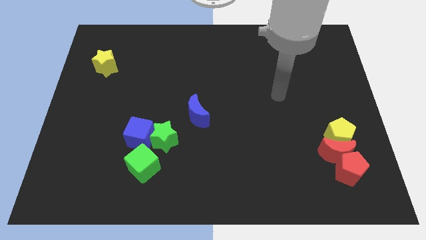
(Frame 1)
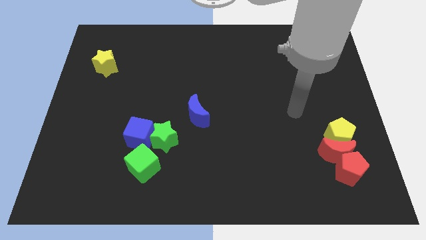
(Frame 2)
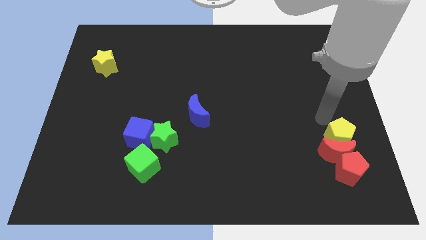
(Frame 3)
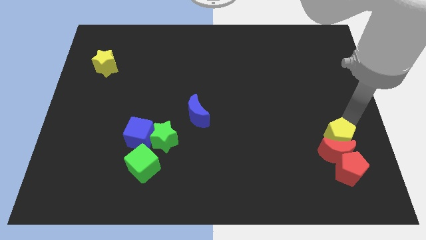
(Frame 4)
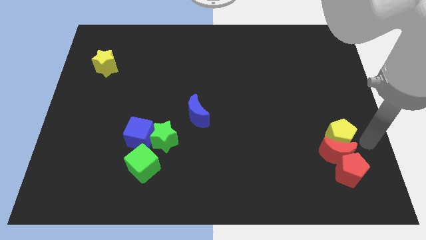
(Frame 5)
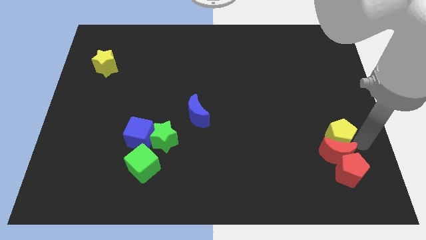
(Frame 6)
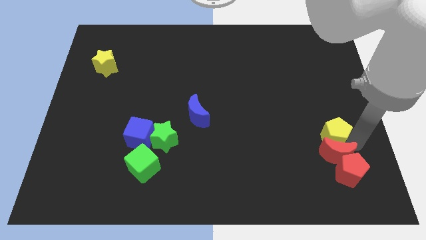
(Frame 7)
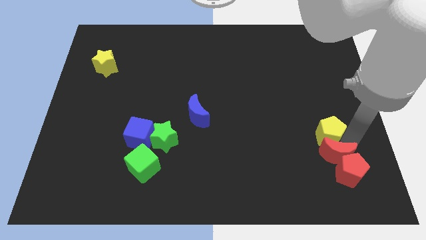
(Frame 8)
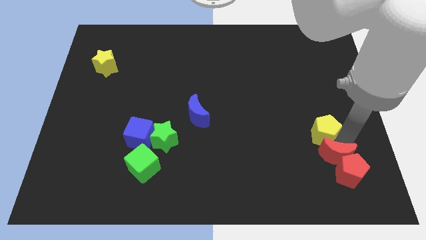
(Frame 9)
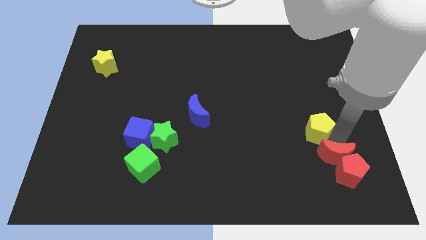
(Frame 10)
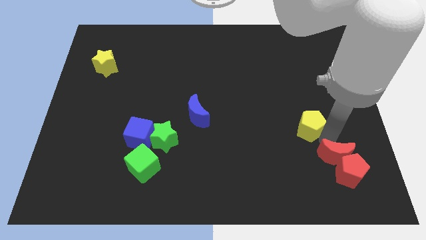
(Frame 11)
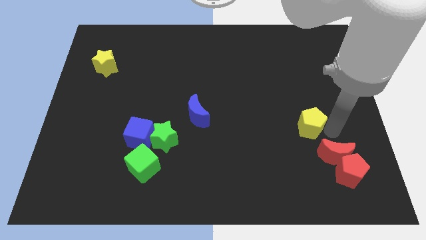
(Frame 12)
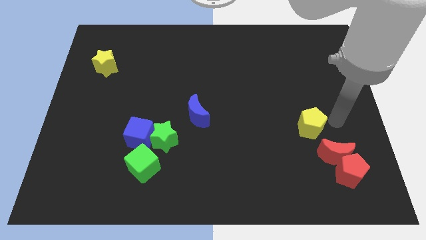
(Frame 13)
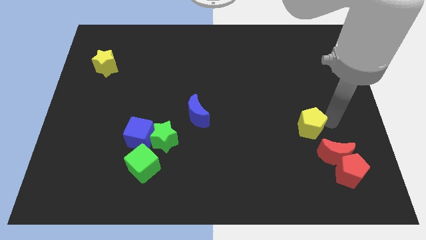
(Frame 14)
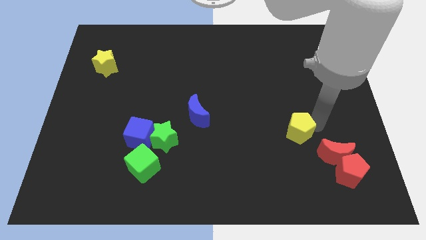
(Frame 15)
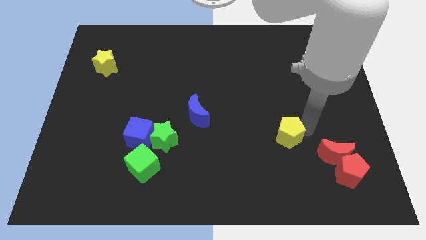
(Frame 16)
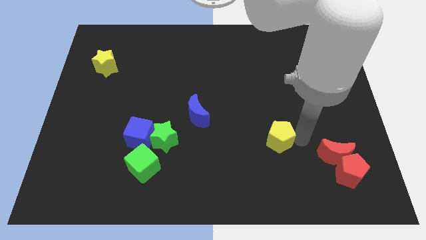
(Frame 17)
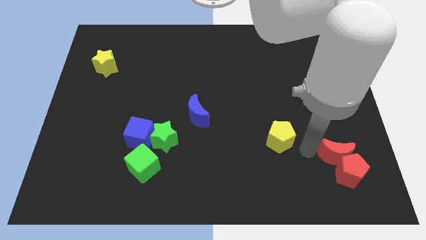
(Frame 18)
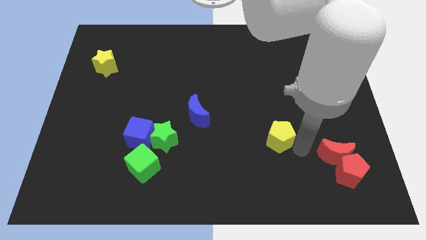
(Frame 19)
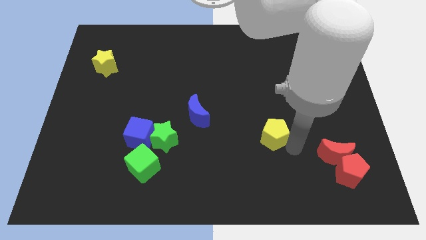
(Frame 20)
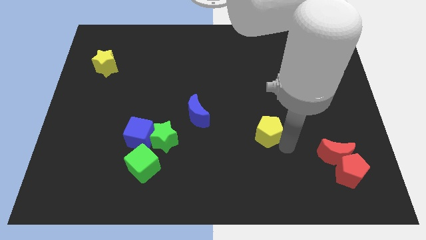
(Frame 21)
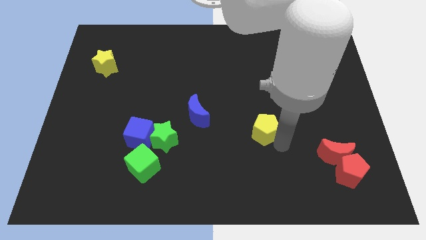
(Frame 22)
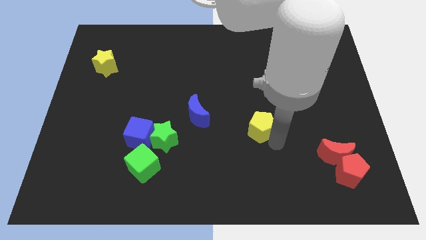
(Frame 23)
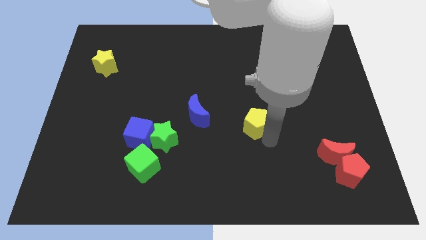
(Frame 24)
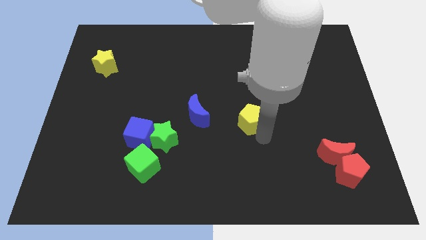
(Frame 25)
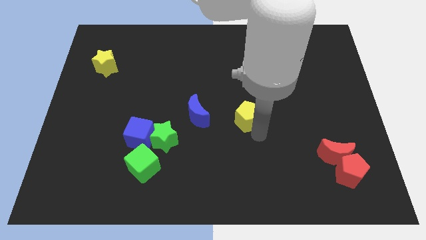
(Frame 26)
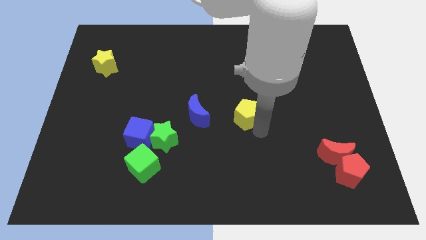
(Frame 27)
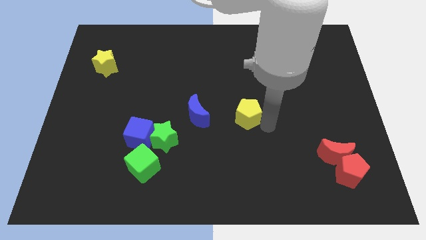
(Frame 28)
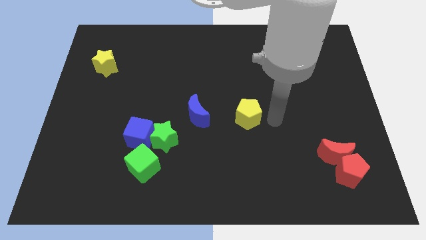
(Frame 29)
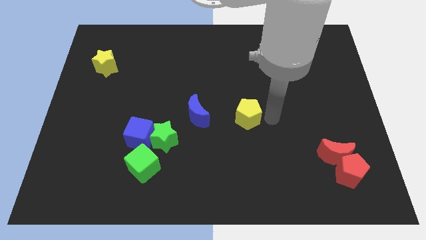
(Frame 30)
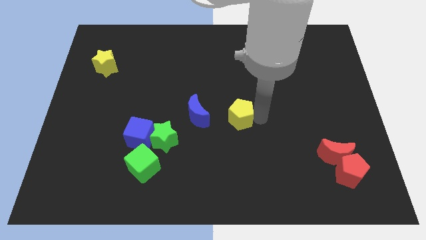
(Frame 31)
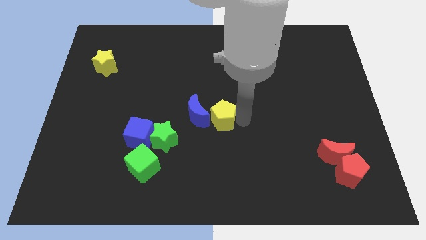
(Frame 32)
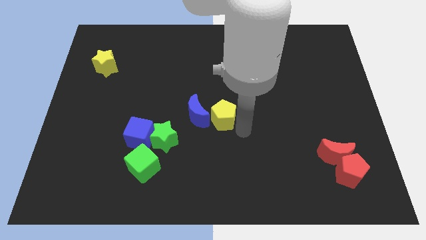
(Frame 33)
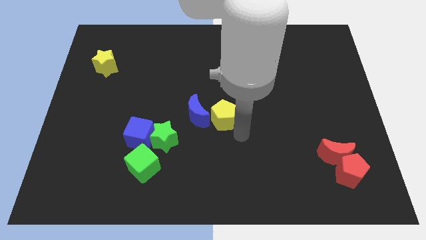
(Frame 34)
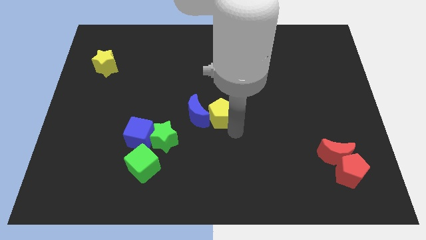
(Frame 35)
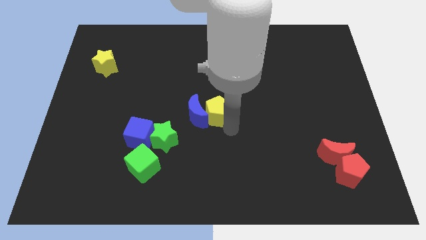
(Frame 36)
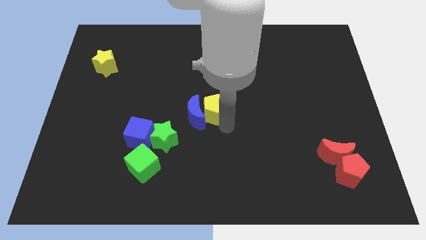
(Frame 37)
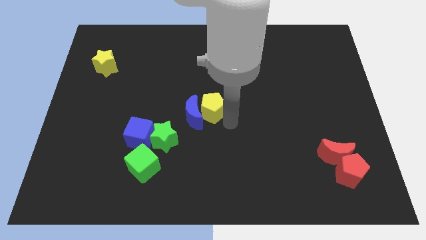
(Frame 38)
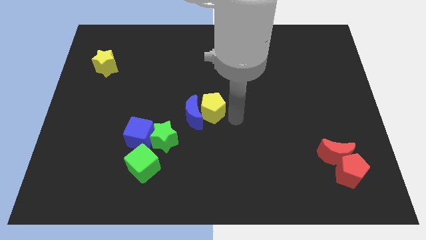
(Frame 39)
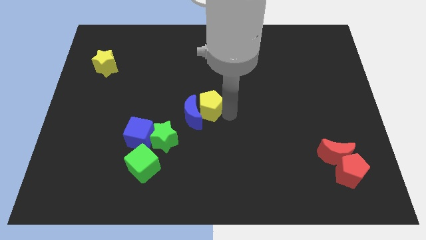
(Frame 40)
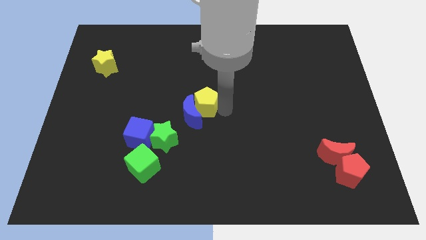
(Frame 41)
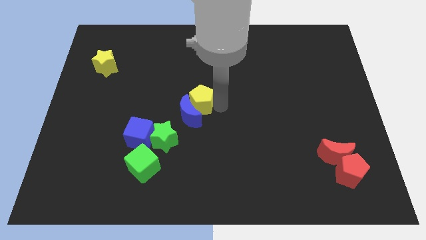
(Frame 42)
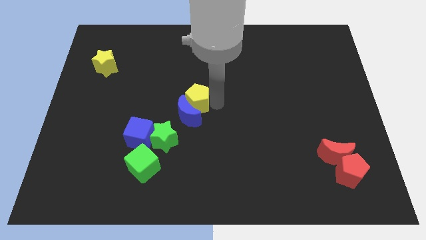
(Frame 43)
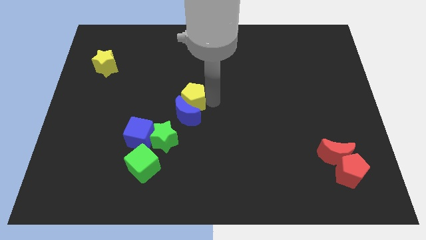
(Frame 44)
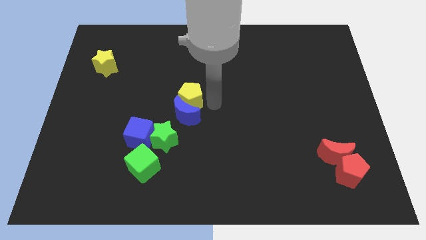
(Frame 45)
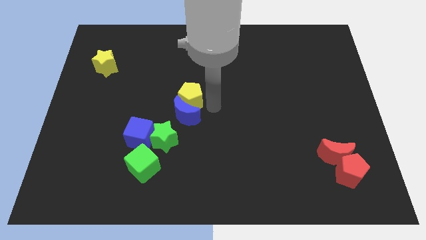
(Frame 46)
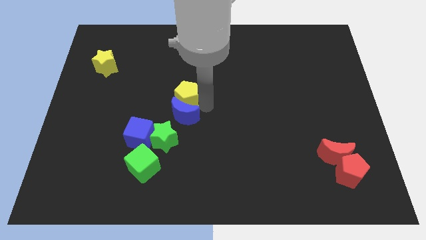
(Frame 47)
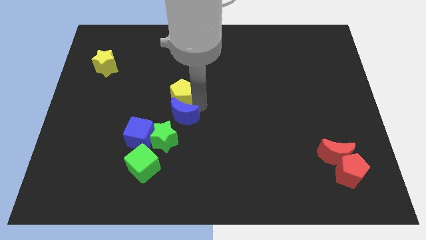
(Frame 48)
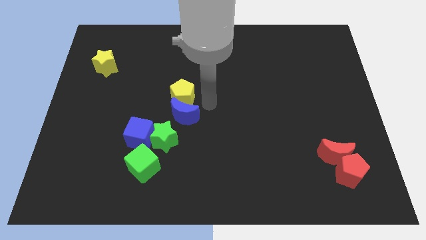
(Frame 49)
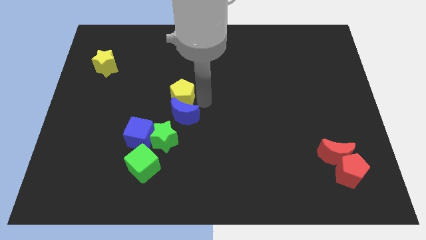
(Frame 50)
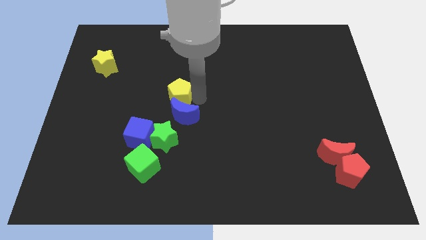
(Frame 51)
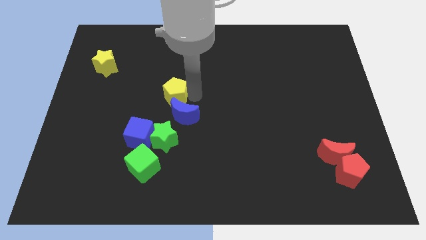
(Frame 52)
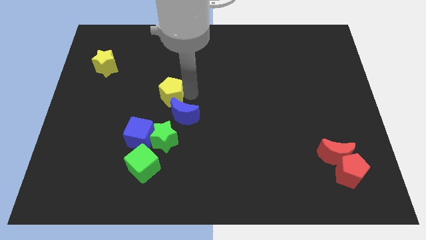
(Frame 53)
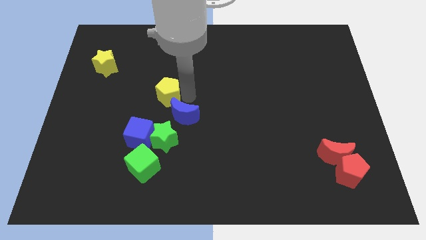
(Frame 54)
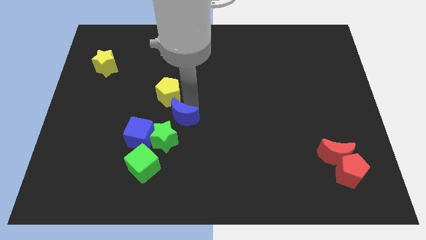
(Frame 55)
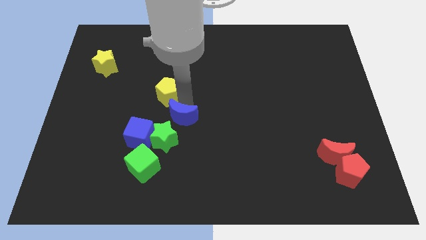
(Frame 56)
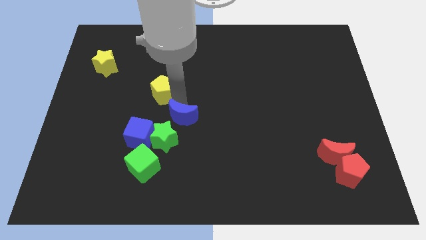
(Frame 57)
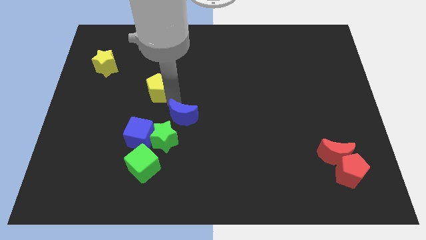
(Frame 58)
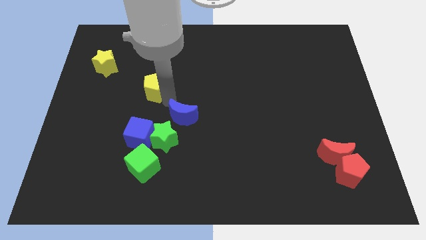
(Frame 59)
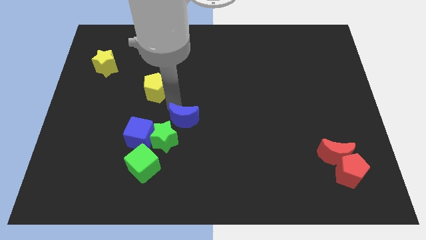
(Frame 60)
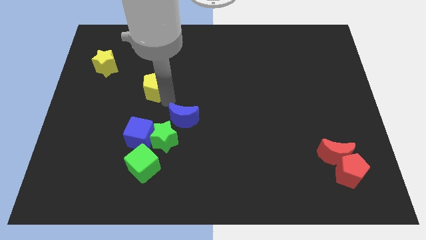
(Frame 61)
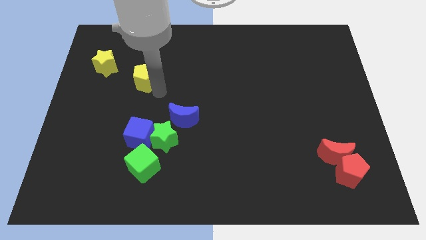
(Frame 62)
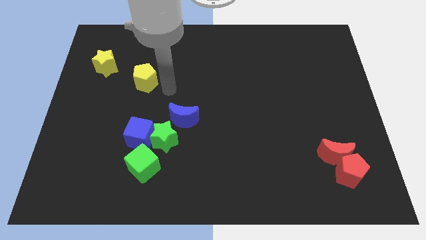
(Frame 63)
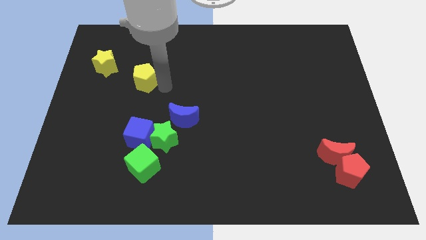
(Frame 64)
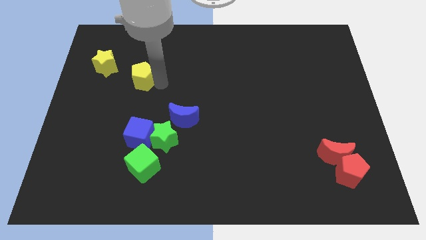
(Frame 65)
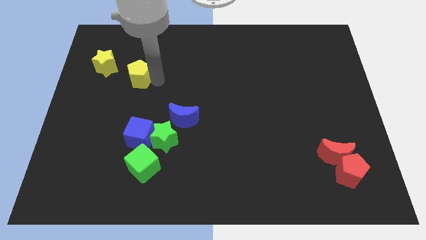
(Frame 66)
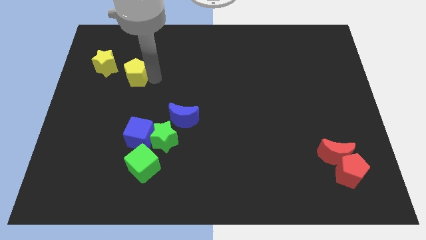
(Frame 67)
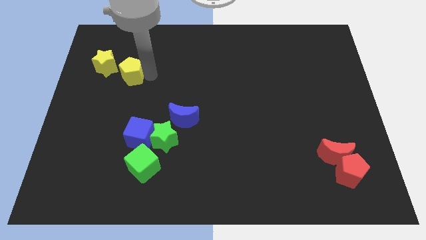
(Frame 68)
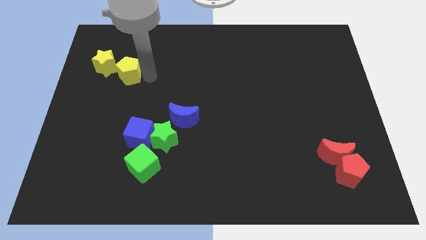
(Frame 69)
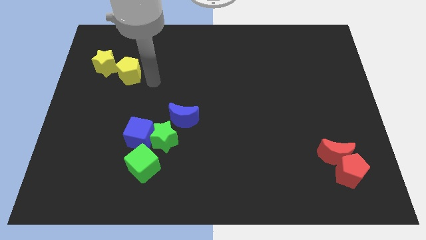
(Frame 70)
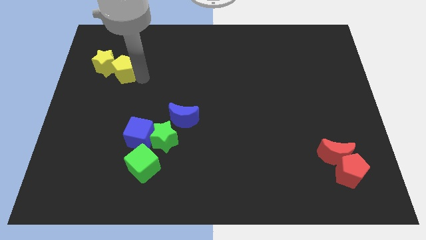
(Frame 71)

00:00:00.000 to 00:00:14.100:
push the yellow pentagon to the yellow star

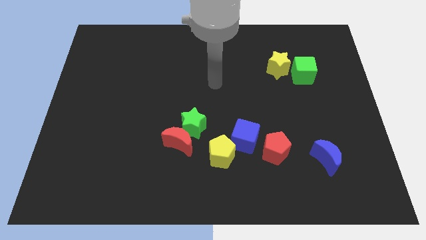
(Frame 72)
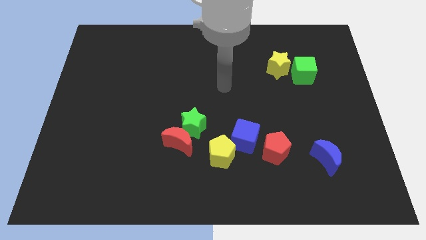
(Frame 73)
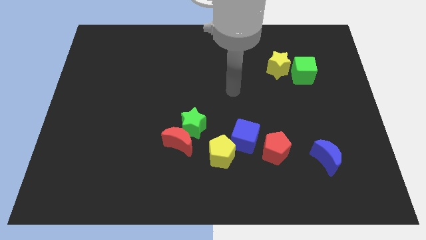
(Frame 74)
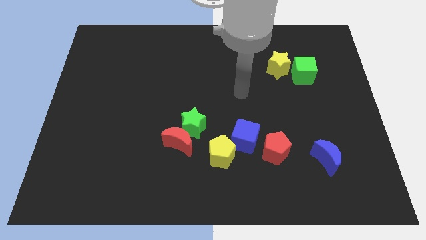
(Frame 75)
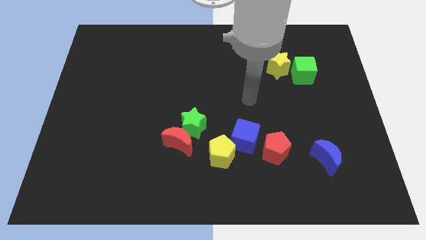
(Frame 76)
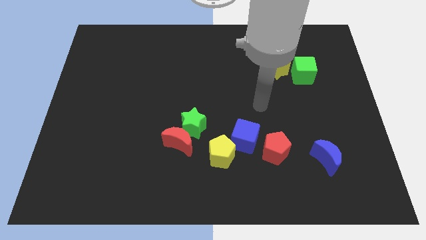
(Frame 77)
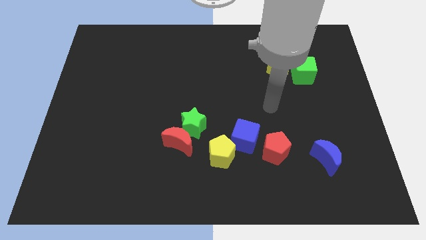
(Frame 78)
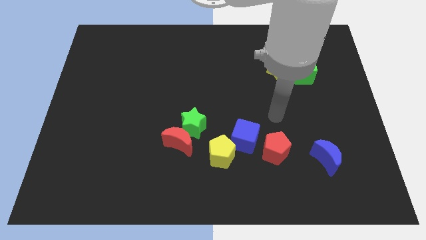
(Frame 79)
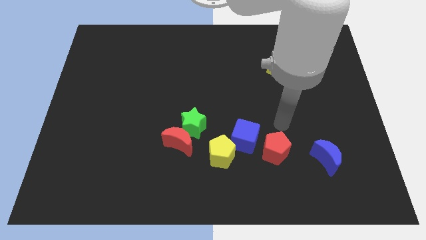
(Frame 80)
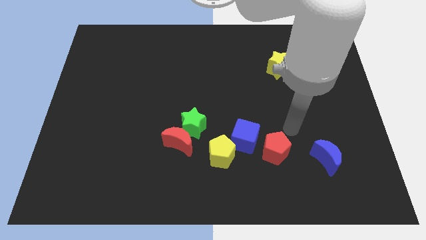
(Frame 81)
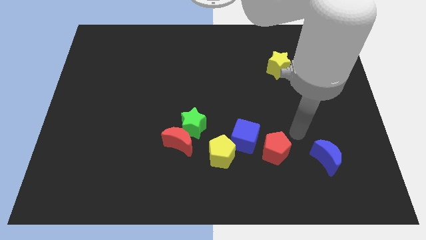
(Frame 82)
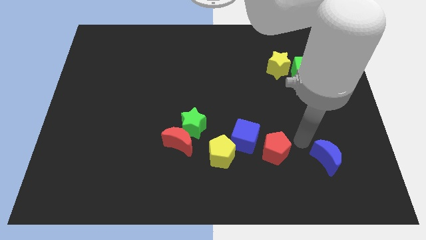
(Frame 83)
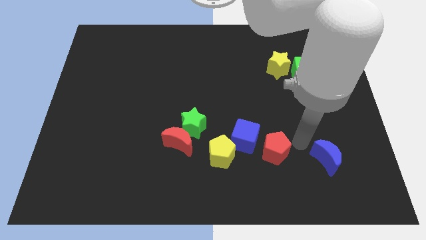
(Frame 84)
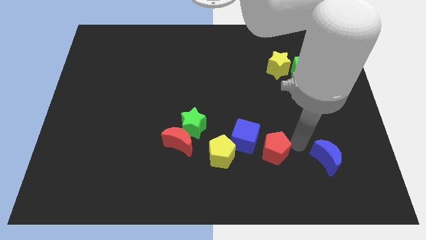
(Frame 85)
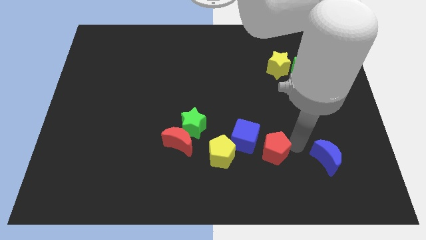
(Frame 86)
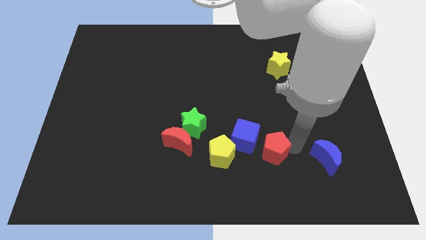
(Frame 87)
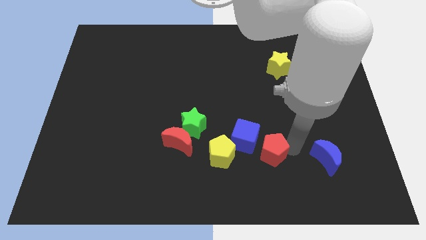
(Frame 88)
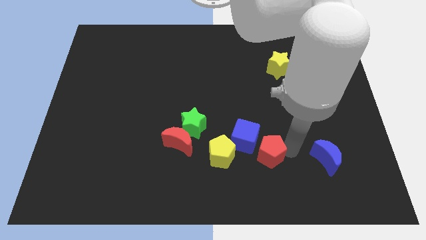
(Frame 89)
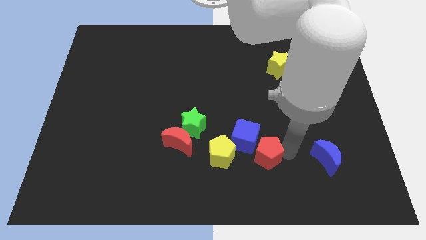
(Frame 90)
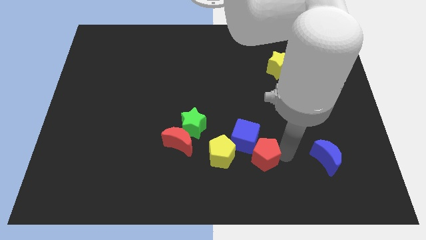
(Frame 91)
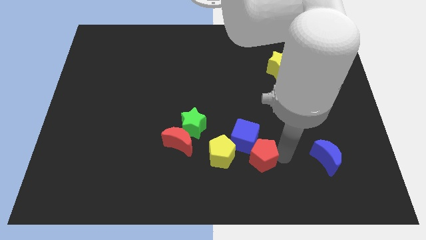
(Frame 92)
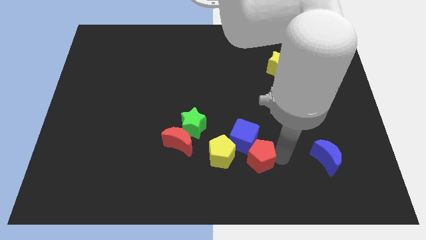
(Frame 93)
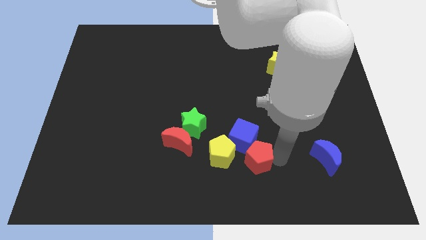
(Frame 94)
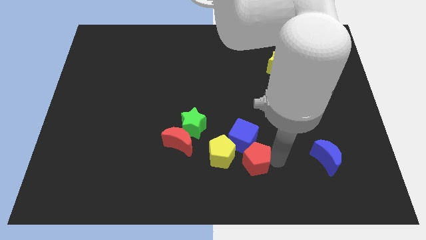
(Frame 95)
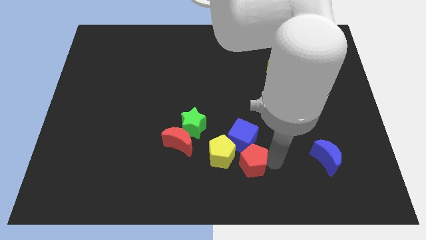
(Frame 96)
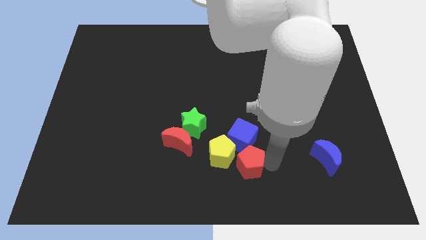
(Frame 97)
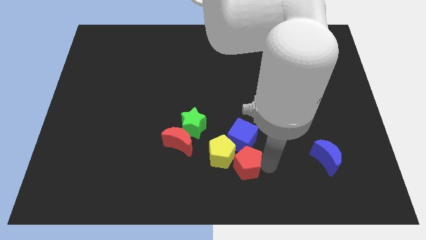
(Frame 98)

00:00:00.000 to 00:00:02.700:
put the red pentagon towards the yellow pentagon
